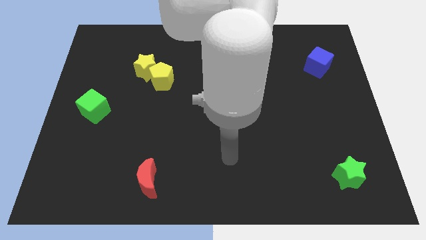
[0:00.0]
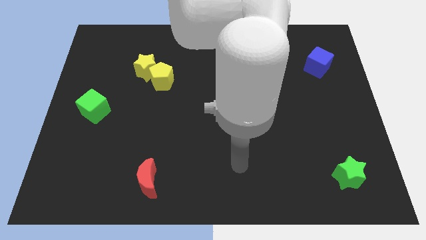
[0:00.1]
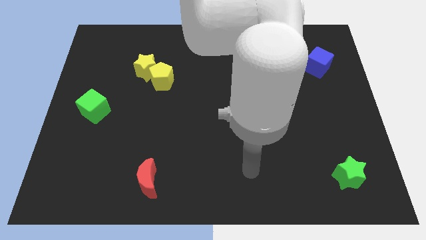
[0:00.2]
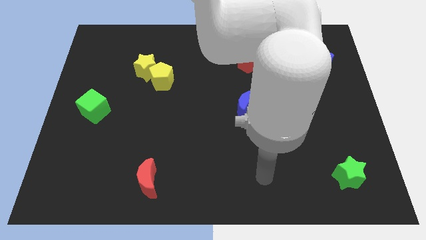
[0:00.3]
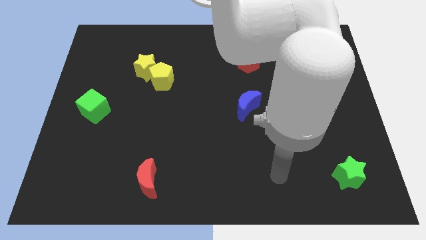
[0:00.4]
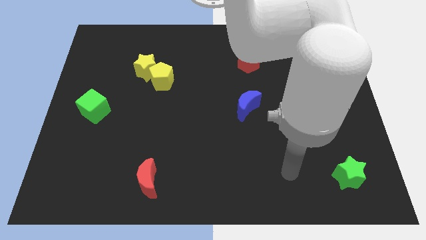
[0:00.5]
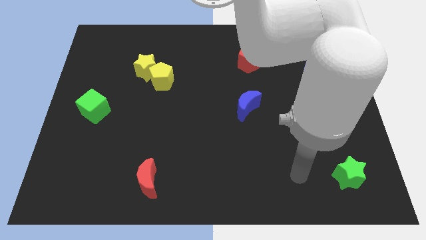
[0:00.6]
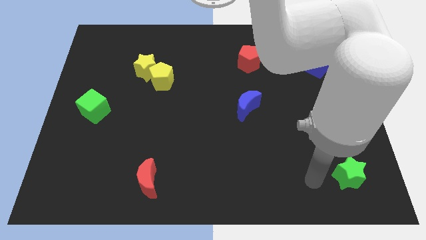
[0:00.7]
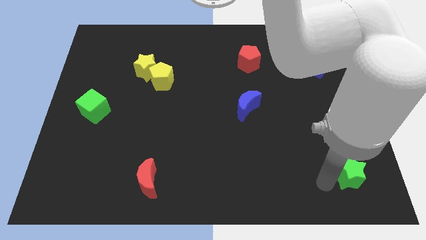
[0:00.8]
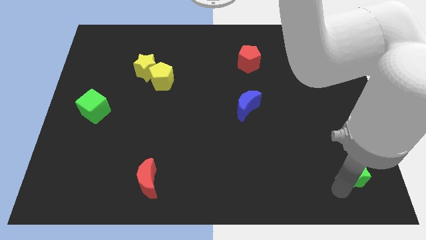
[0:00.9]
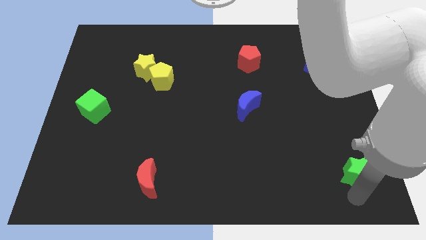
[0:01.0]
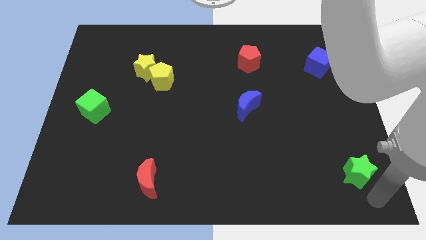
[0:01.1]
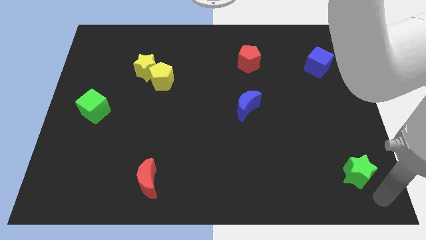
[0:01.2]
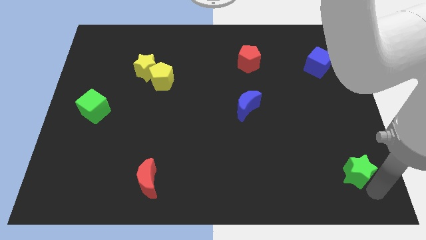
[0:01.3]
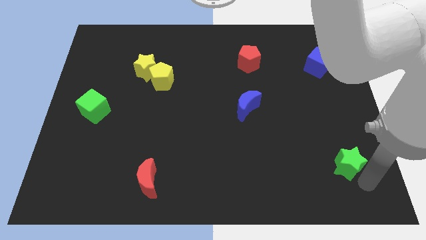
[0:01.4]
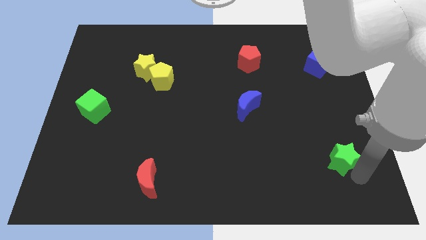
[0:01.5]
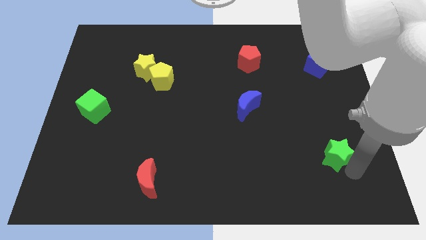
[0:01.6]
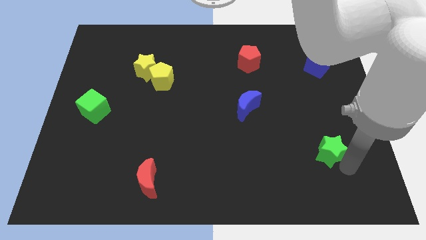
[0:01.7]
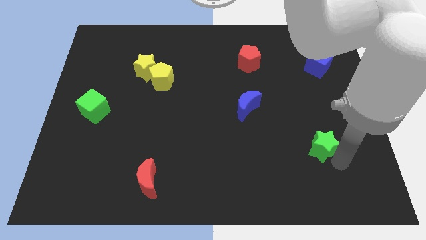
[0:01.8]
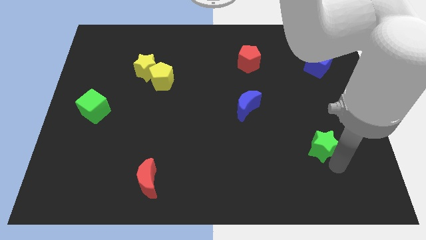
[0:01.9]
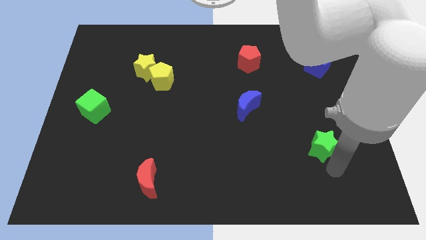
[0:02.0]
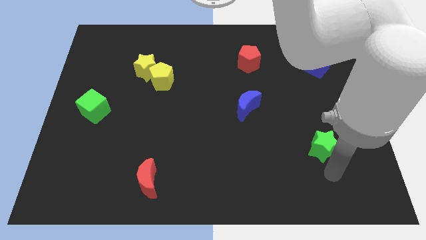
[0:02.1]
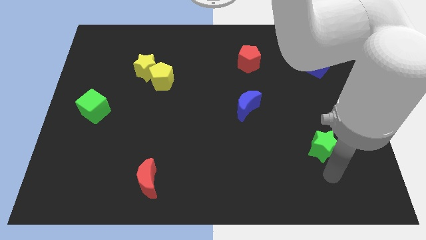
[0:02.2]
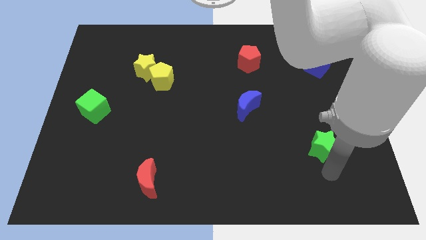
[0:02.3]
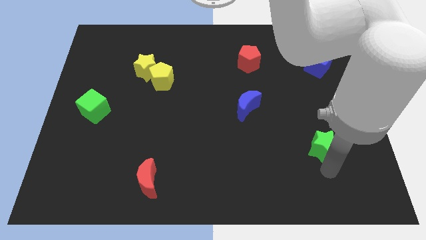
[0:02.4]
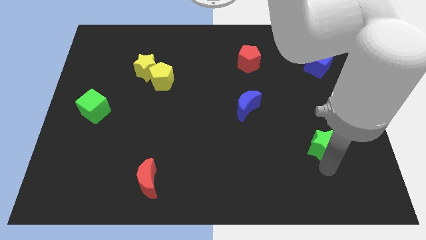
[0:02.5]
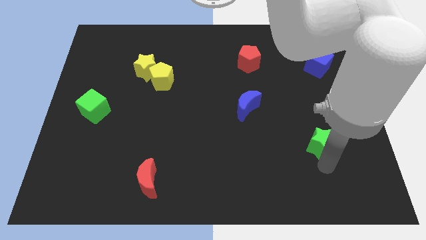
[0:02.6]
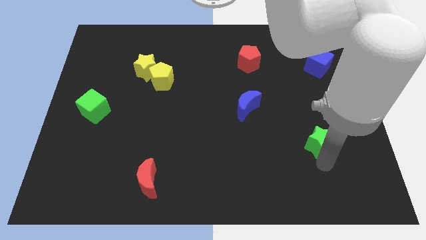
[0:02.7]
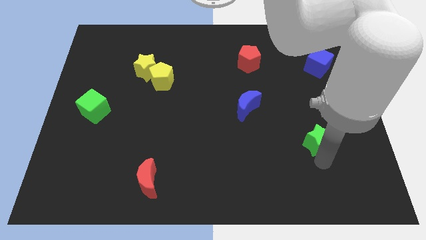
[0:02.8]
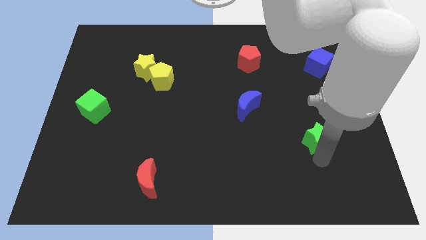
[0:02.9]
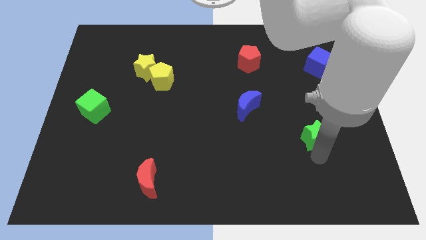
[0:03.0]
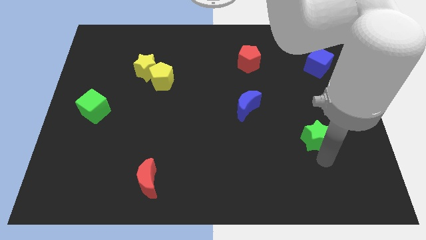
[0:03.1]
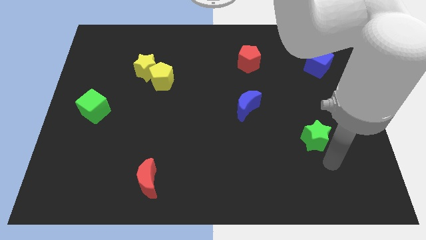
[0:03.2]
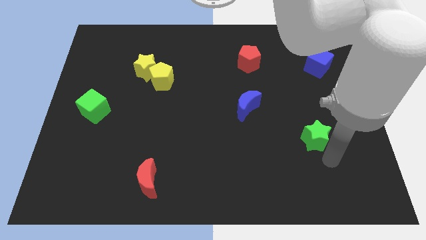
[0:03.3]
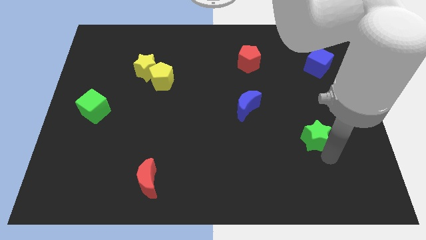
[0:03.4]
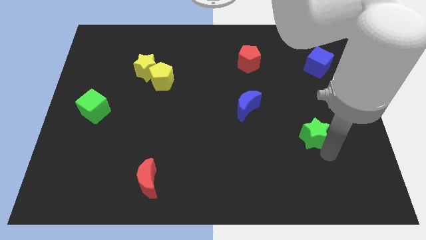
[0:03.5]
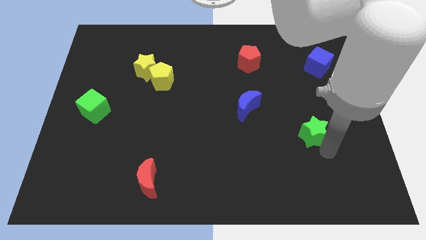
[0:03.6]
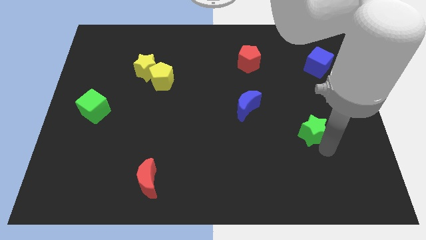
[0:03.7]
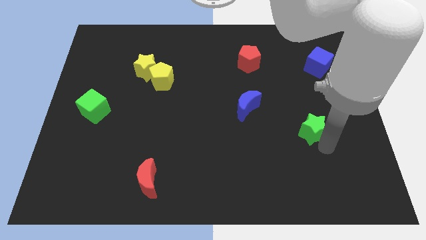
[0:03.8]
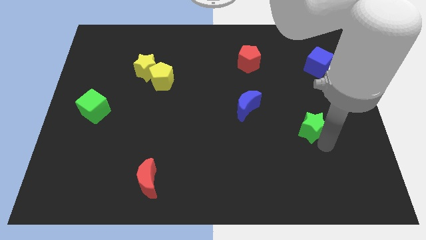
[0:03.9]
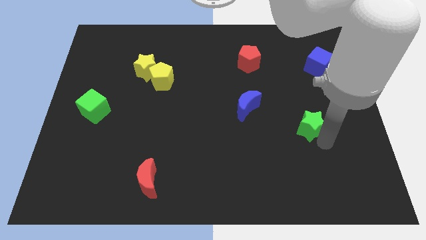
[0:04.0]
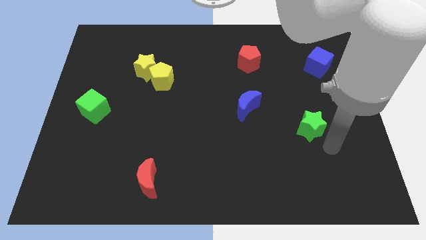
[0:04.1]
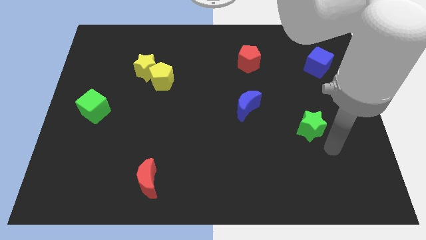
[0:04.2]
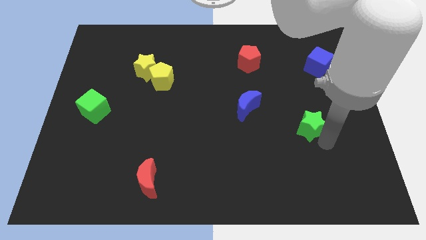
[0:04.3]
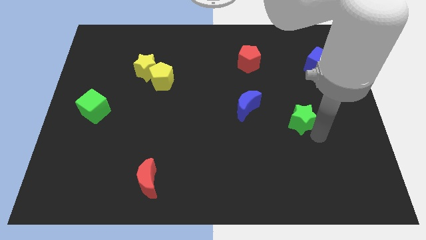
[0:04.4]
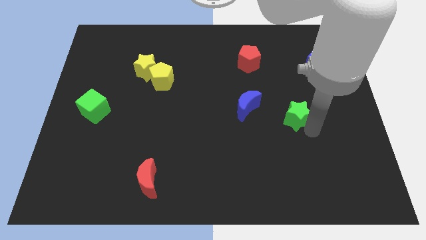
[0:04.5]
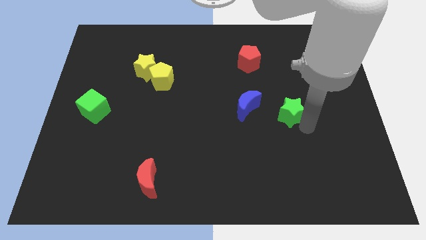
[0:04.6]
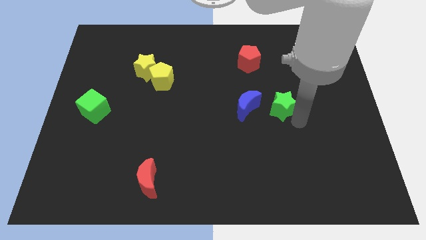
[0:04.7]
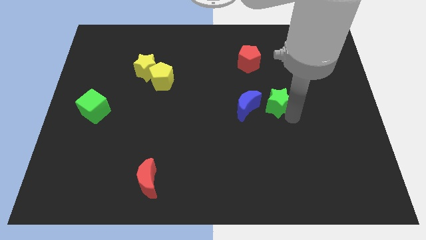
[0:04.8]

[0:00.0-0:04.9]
move the green star to the top right side of the blue moon

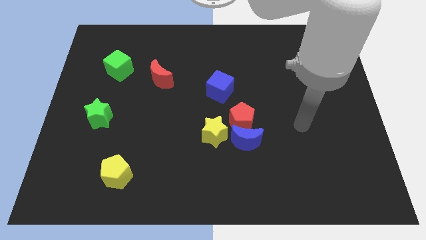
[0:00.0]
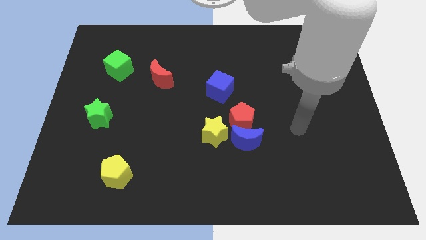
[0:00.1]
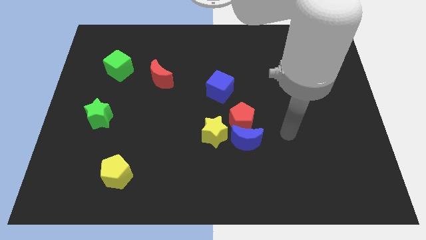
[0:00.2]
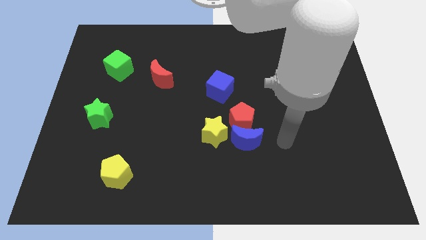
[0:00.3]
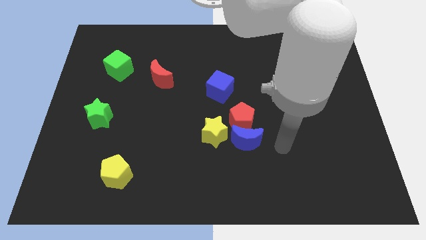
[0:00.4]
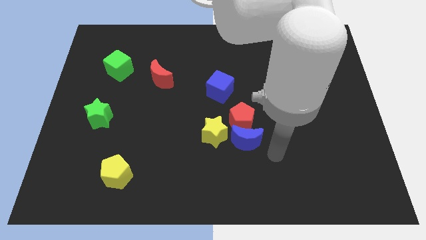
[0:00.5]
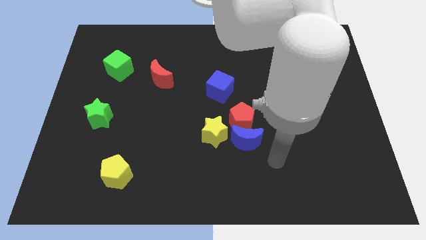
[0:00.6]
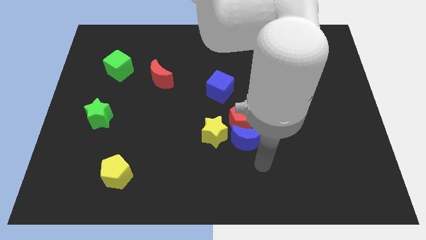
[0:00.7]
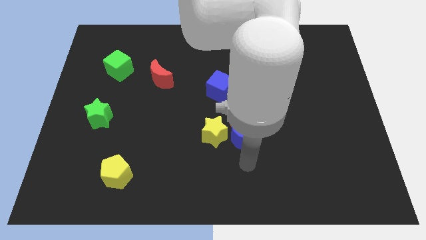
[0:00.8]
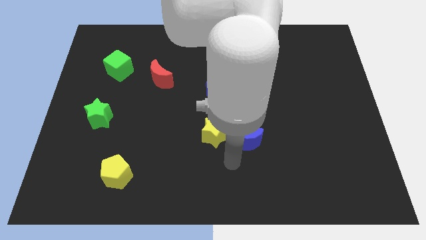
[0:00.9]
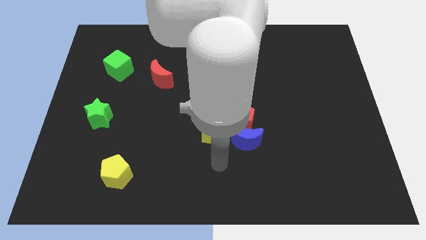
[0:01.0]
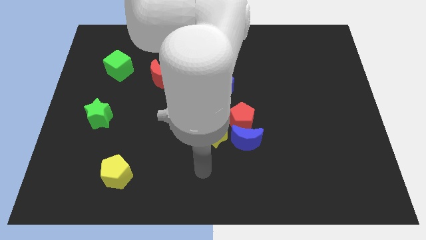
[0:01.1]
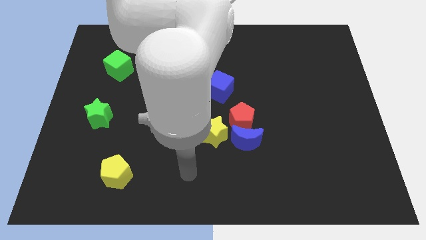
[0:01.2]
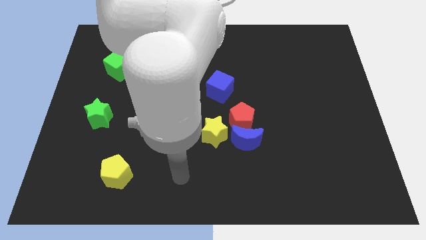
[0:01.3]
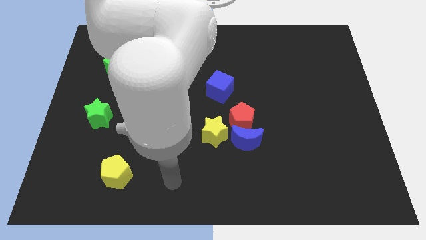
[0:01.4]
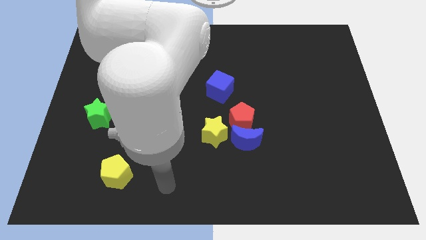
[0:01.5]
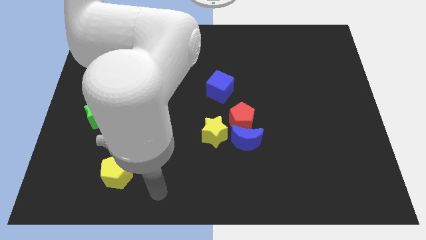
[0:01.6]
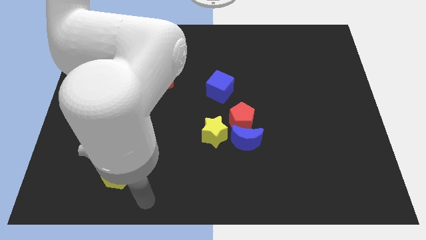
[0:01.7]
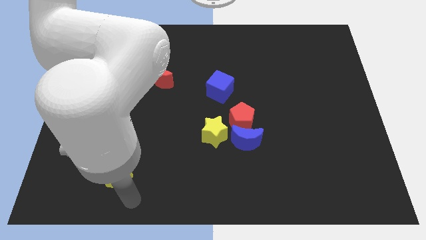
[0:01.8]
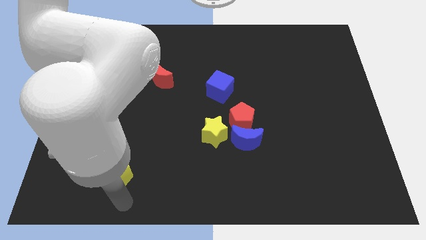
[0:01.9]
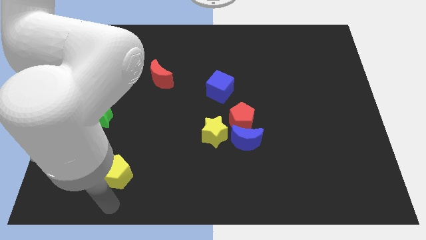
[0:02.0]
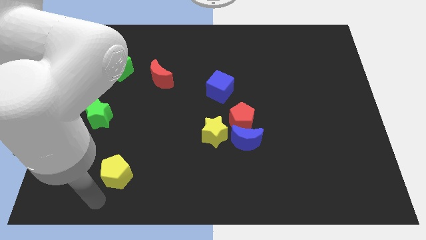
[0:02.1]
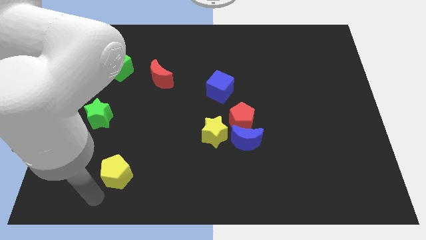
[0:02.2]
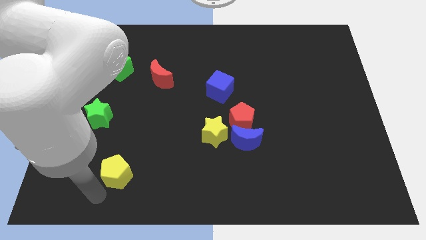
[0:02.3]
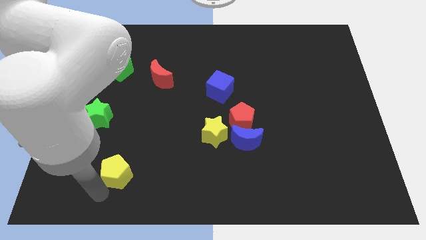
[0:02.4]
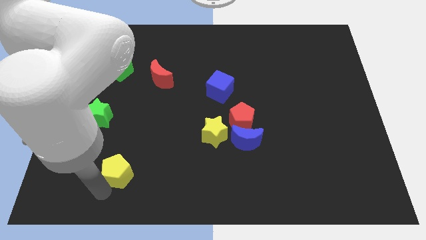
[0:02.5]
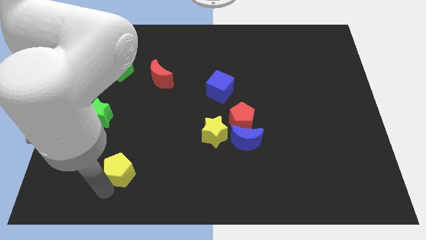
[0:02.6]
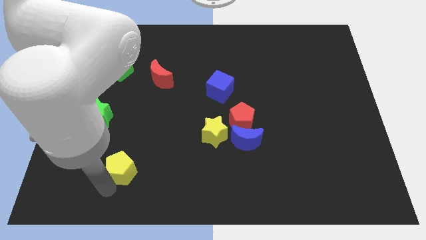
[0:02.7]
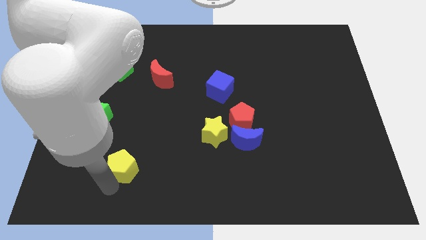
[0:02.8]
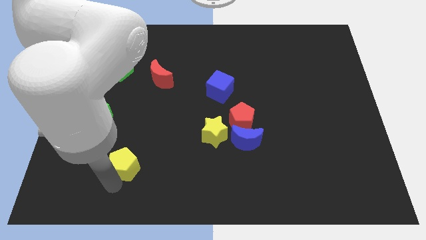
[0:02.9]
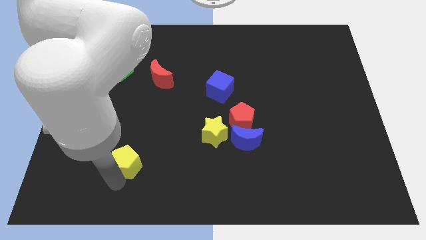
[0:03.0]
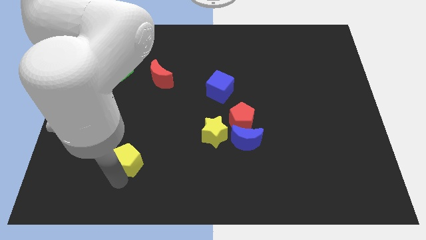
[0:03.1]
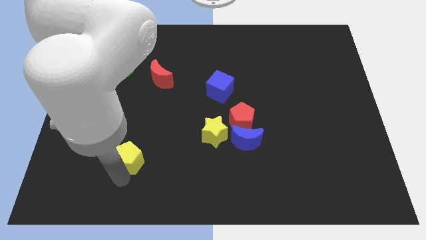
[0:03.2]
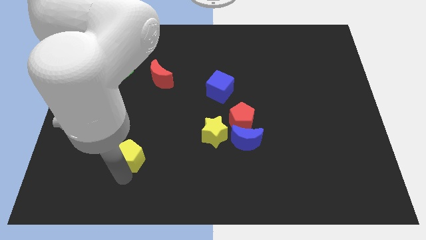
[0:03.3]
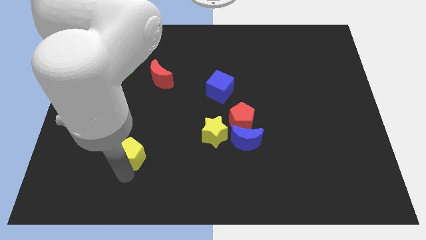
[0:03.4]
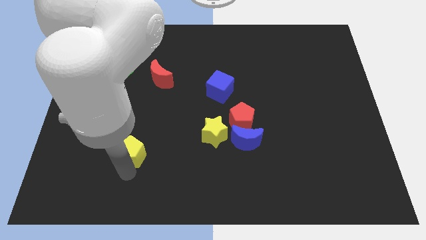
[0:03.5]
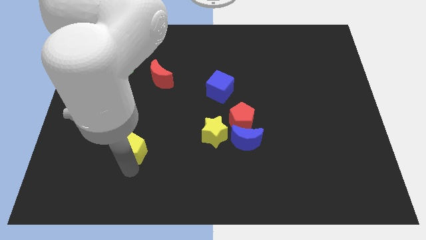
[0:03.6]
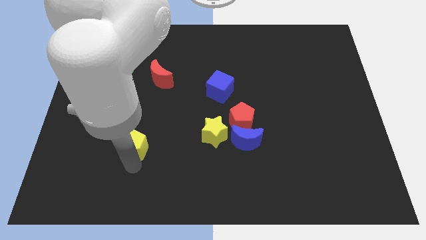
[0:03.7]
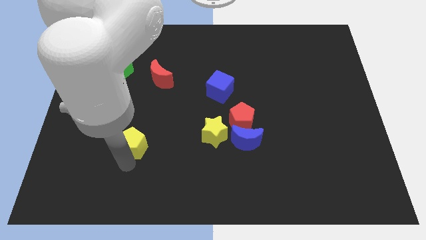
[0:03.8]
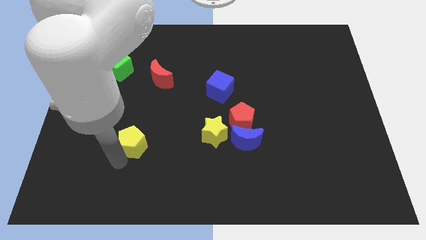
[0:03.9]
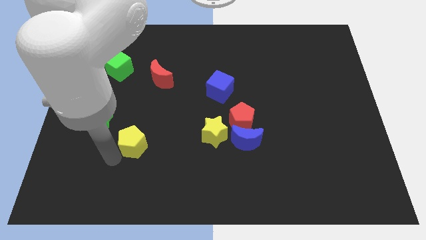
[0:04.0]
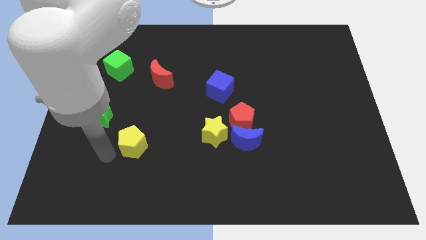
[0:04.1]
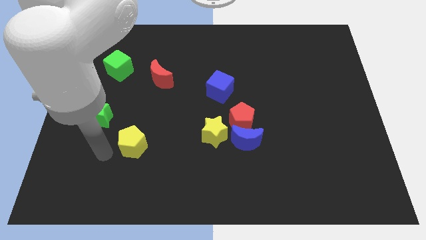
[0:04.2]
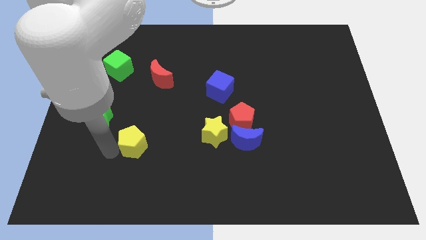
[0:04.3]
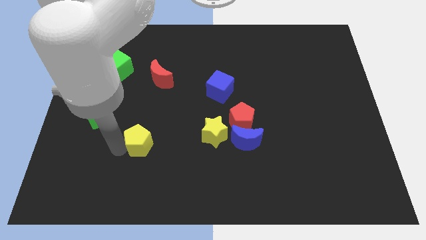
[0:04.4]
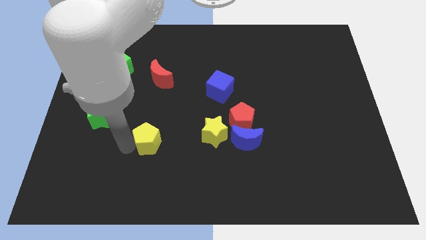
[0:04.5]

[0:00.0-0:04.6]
put the yellow pentagon just left of the yellow star
